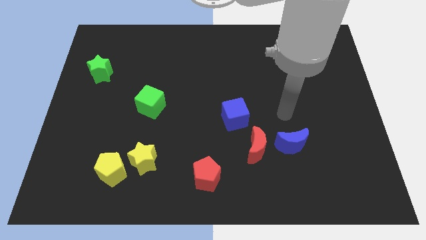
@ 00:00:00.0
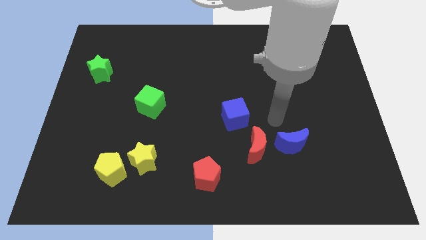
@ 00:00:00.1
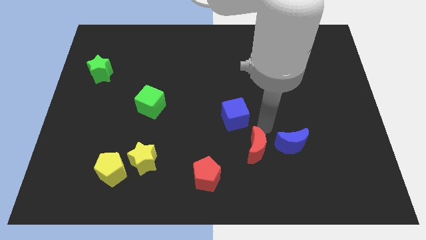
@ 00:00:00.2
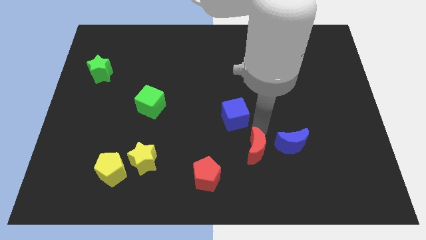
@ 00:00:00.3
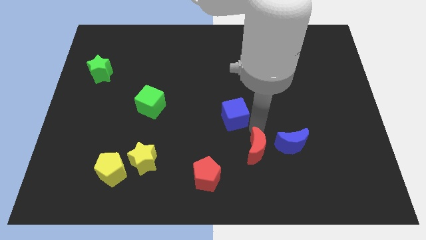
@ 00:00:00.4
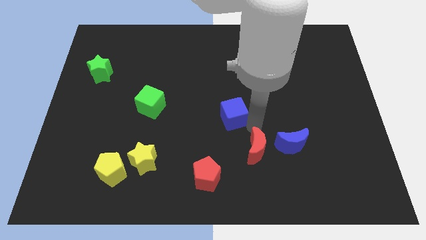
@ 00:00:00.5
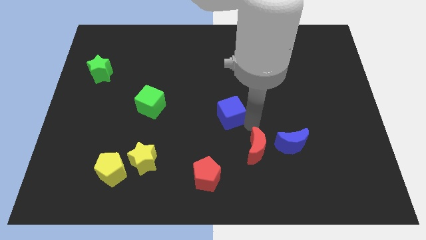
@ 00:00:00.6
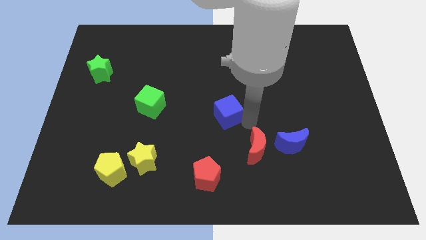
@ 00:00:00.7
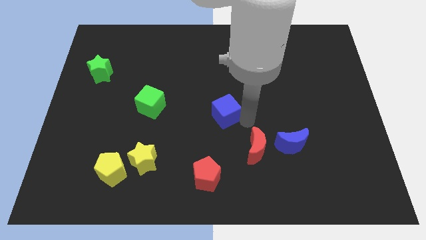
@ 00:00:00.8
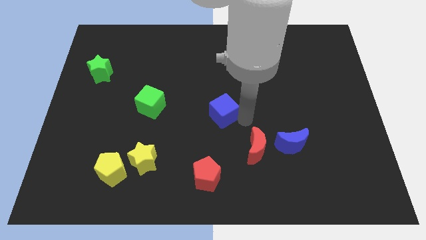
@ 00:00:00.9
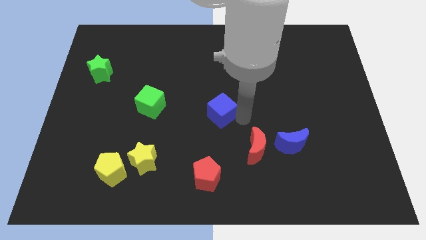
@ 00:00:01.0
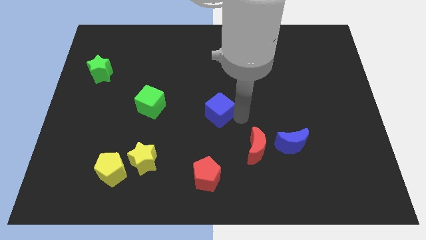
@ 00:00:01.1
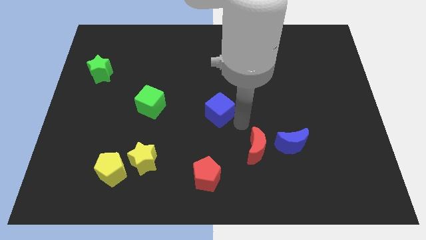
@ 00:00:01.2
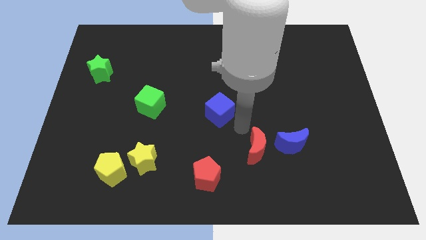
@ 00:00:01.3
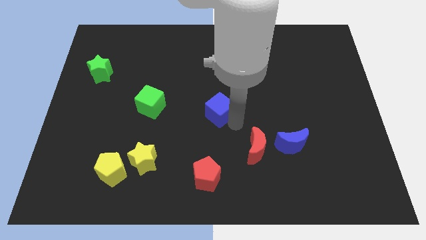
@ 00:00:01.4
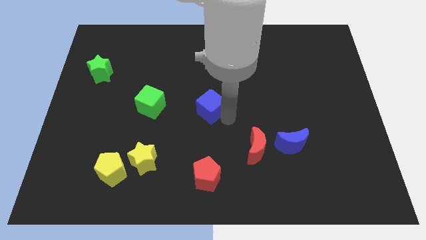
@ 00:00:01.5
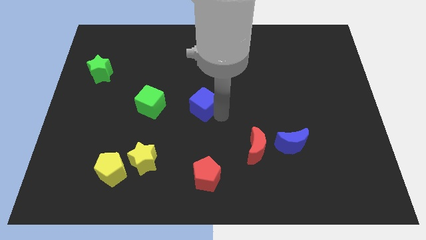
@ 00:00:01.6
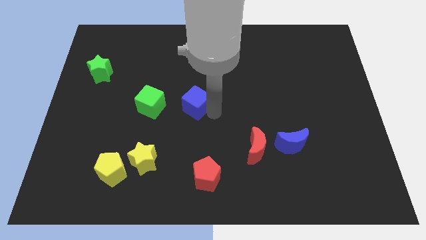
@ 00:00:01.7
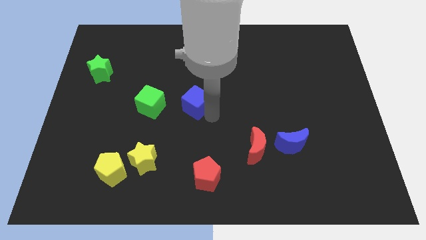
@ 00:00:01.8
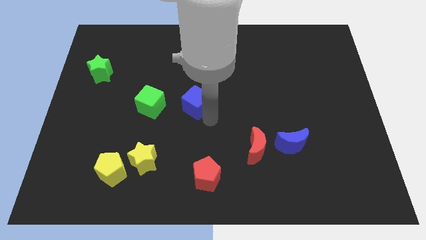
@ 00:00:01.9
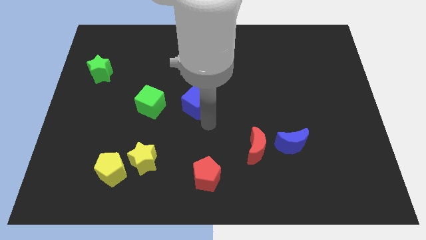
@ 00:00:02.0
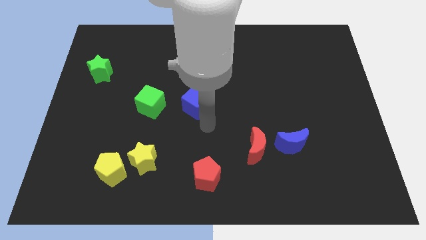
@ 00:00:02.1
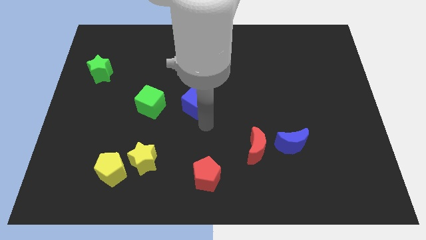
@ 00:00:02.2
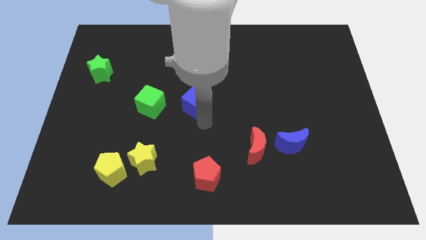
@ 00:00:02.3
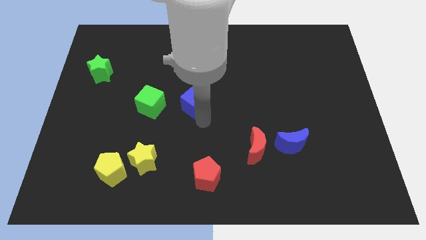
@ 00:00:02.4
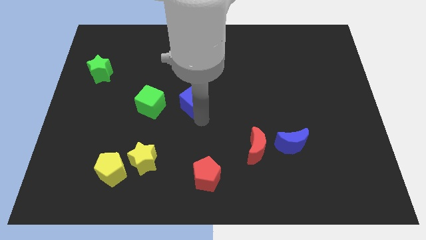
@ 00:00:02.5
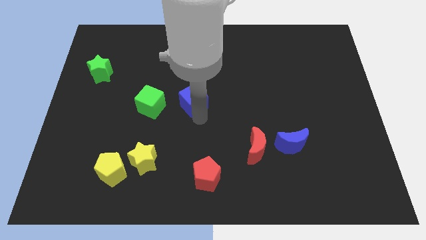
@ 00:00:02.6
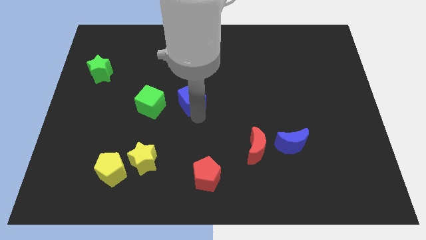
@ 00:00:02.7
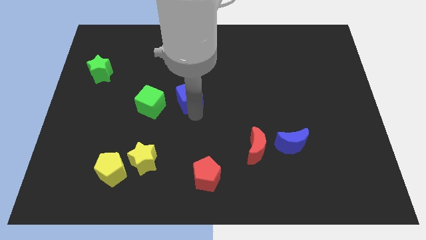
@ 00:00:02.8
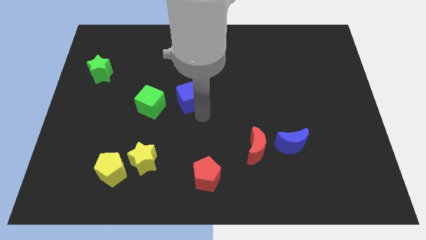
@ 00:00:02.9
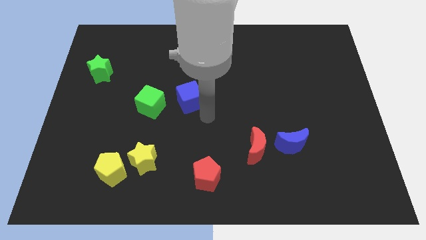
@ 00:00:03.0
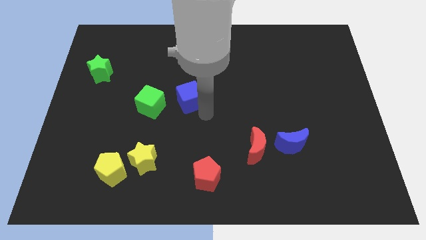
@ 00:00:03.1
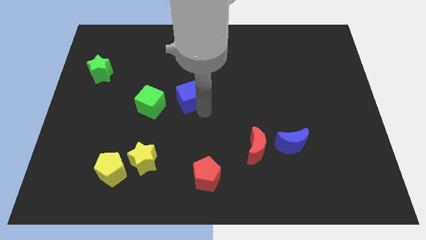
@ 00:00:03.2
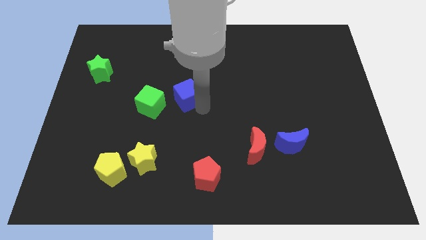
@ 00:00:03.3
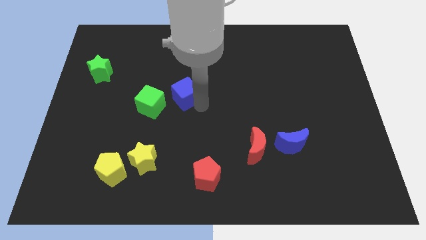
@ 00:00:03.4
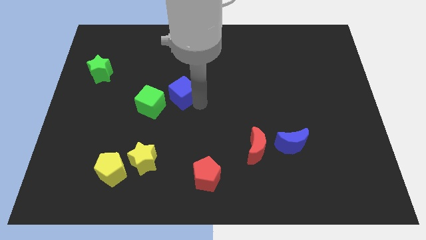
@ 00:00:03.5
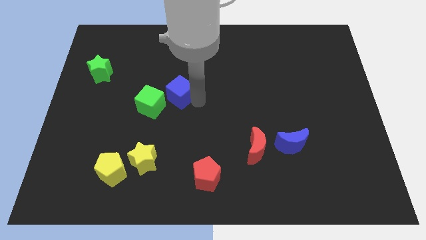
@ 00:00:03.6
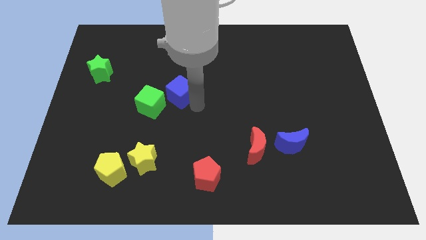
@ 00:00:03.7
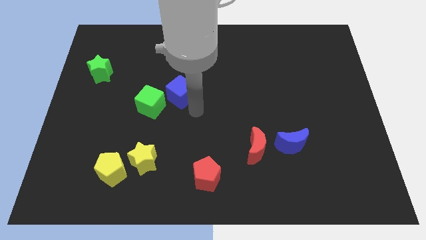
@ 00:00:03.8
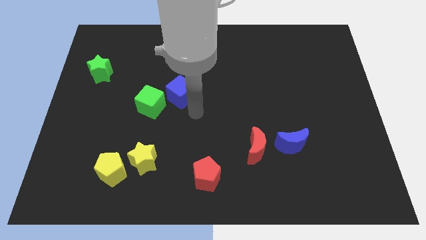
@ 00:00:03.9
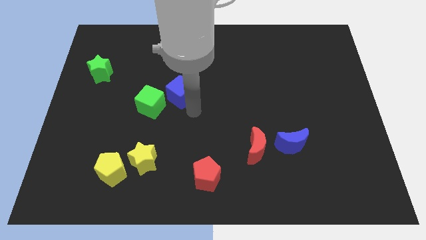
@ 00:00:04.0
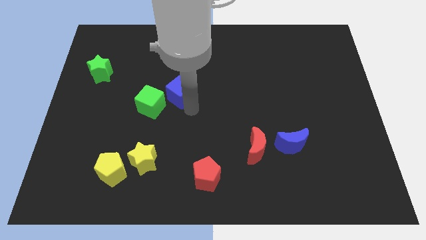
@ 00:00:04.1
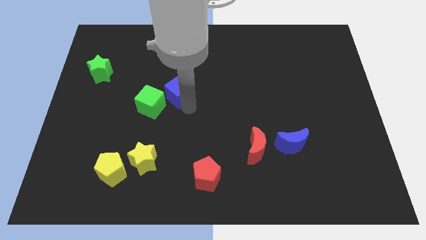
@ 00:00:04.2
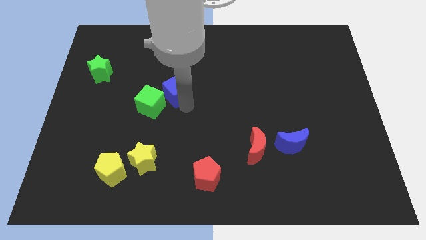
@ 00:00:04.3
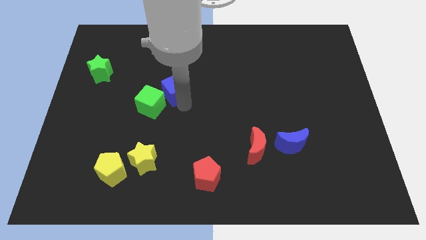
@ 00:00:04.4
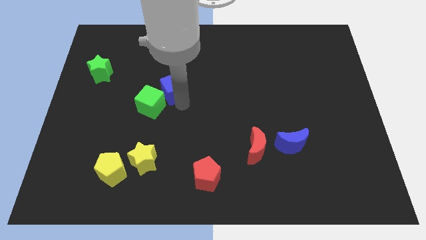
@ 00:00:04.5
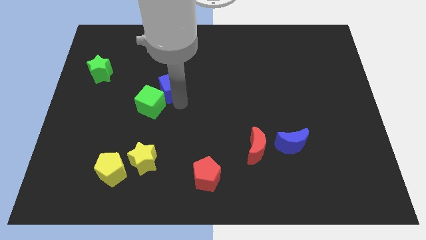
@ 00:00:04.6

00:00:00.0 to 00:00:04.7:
move the blue cube to the top side of the green cube

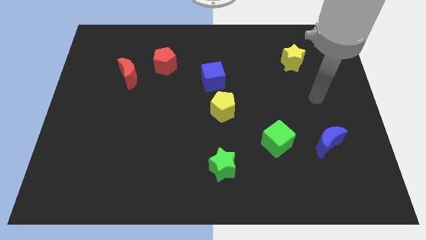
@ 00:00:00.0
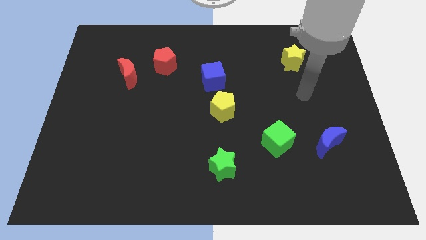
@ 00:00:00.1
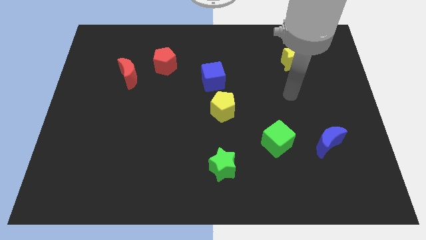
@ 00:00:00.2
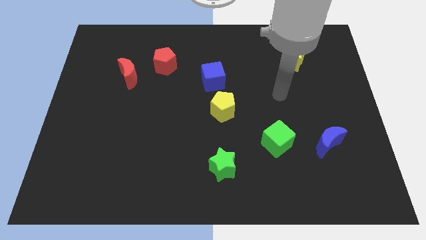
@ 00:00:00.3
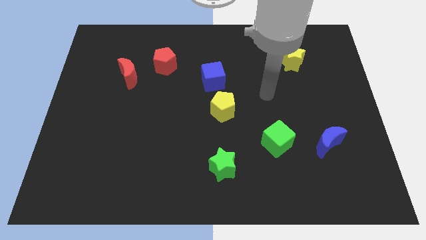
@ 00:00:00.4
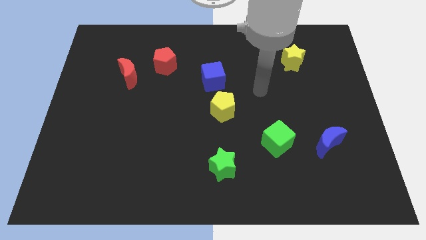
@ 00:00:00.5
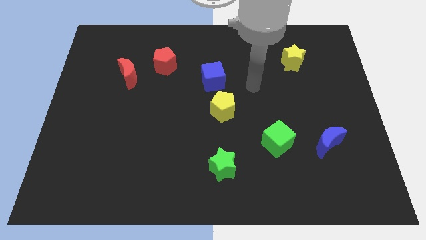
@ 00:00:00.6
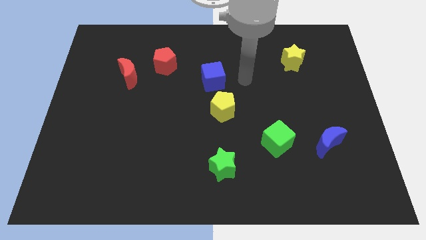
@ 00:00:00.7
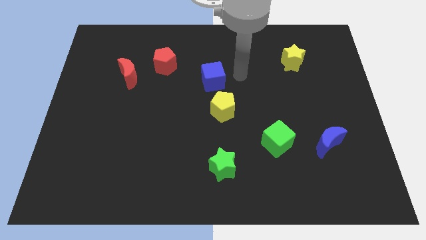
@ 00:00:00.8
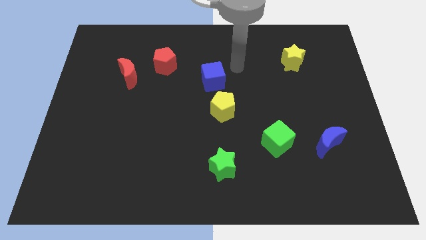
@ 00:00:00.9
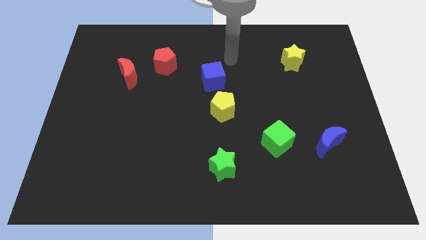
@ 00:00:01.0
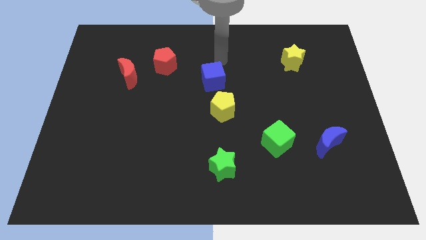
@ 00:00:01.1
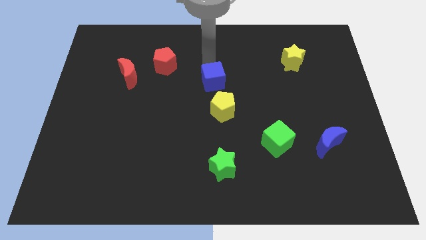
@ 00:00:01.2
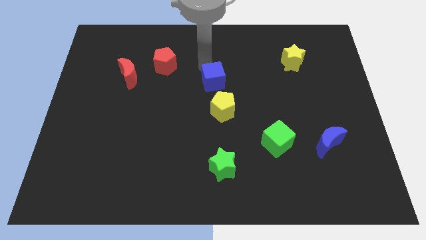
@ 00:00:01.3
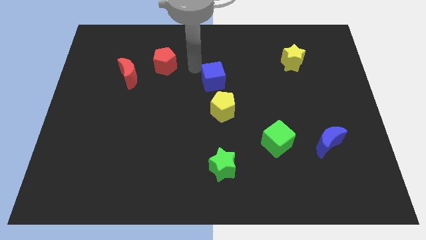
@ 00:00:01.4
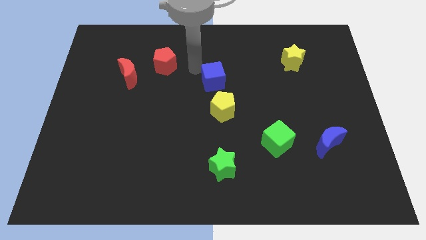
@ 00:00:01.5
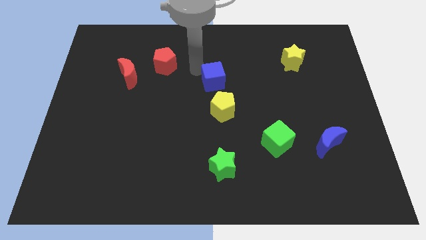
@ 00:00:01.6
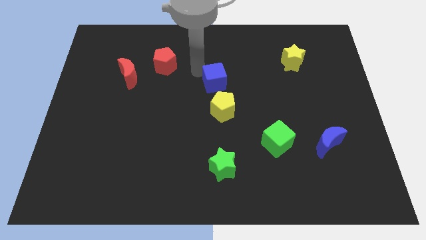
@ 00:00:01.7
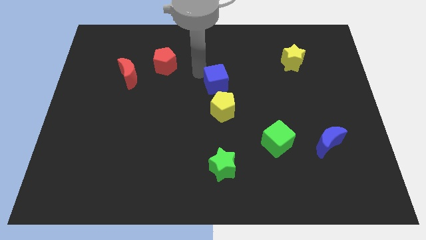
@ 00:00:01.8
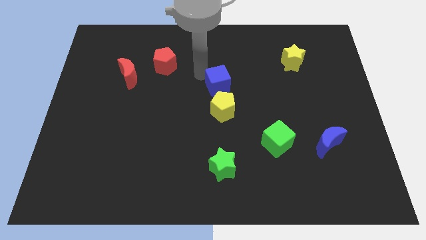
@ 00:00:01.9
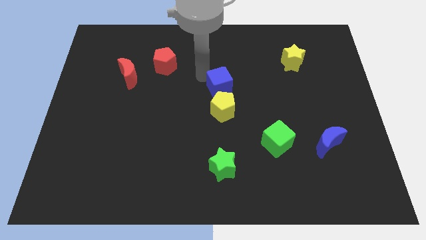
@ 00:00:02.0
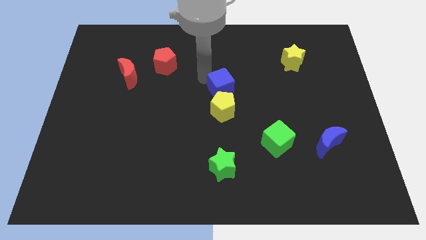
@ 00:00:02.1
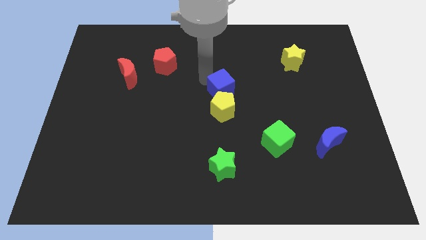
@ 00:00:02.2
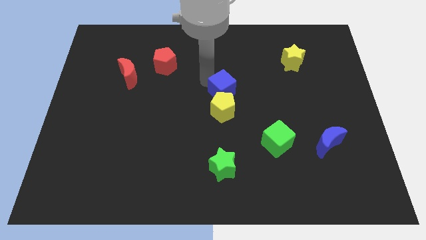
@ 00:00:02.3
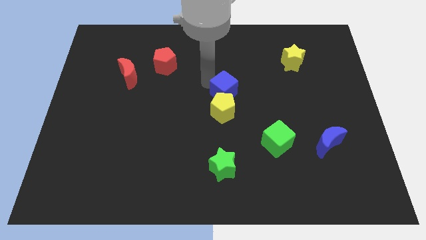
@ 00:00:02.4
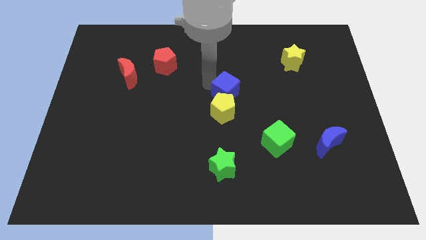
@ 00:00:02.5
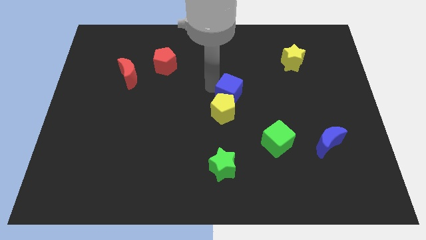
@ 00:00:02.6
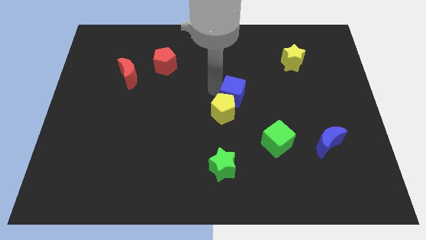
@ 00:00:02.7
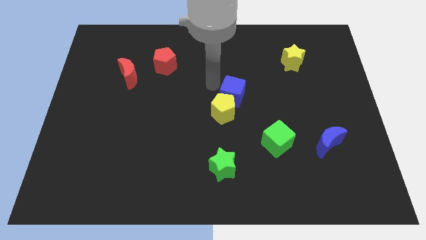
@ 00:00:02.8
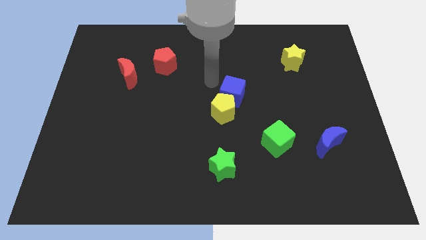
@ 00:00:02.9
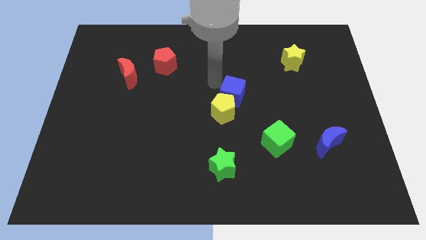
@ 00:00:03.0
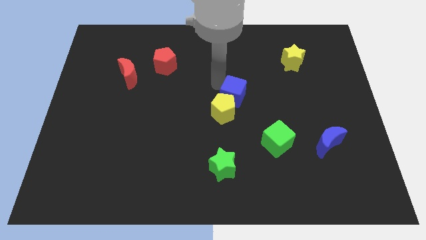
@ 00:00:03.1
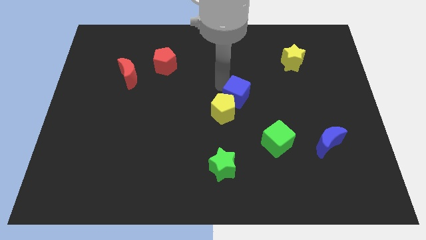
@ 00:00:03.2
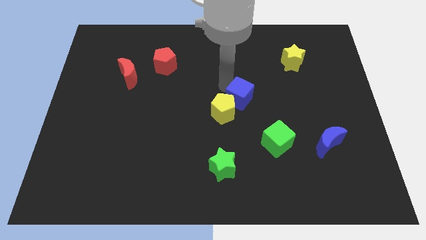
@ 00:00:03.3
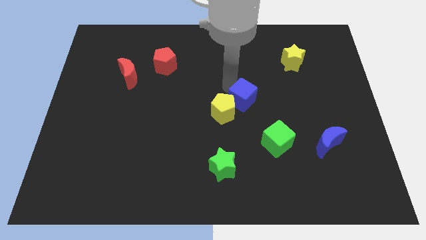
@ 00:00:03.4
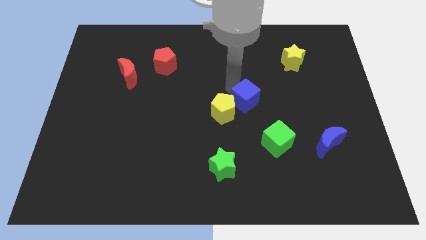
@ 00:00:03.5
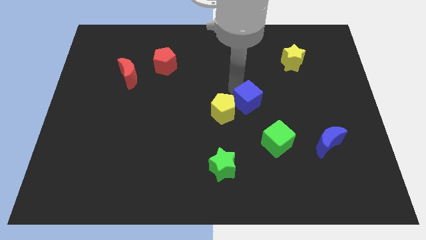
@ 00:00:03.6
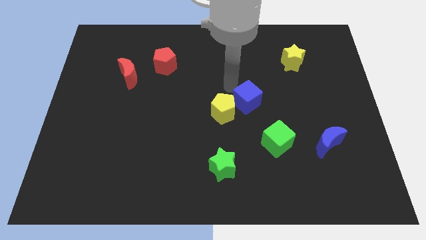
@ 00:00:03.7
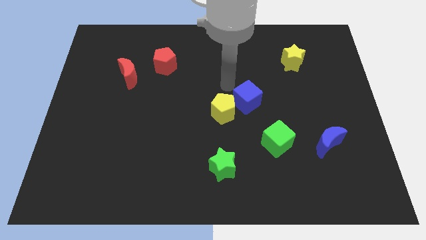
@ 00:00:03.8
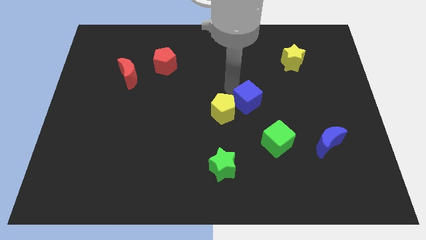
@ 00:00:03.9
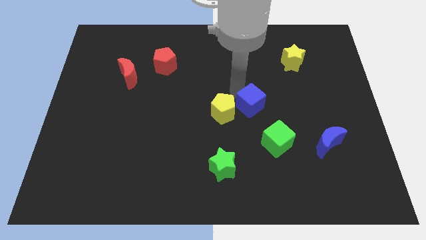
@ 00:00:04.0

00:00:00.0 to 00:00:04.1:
put the blue cube to the top left of the green cube
